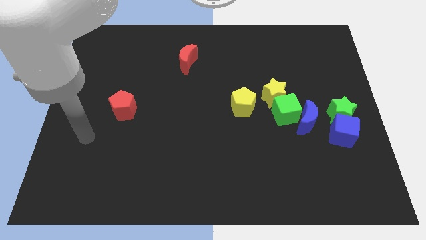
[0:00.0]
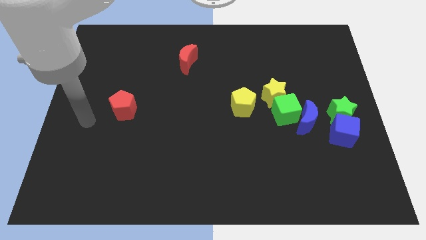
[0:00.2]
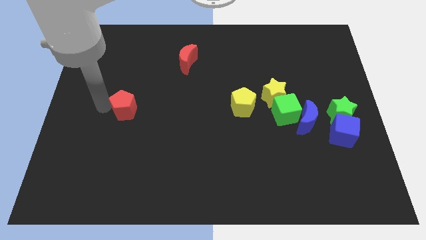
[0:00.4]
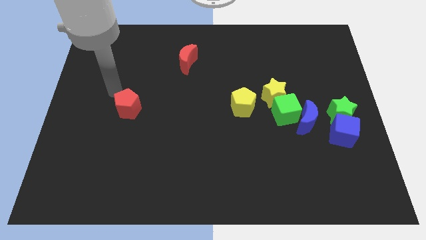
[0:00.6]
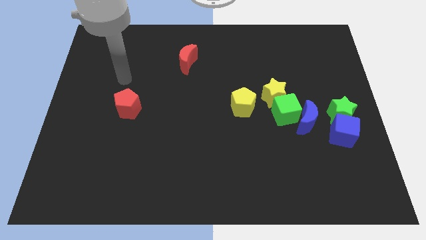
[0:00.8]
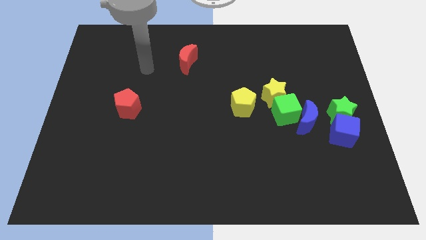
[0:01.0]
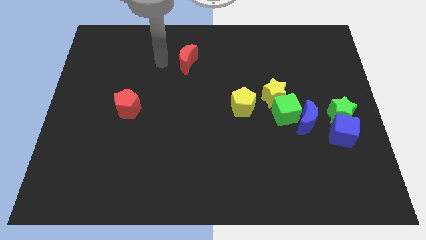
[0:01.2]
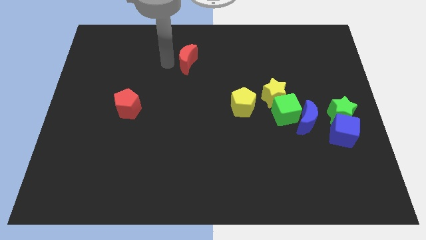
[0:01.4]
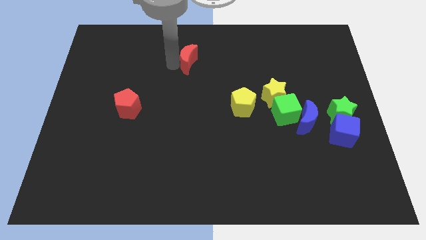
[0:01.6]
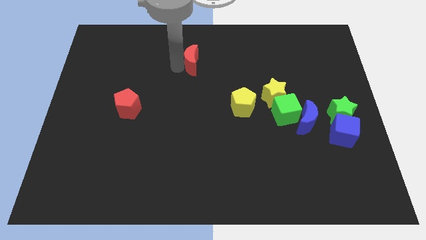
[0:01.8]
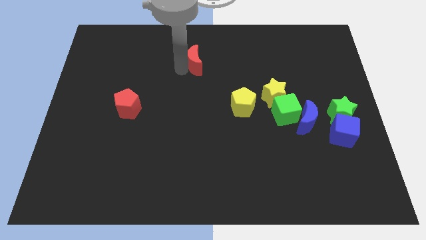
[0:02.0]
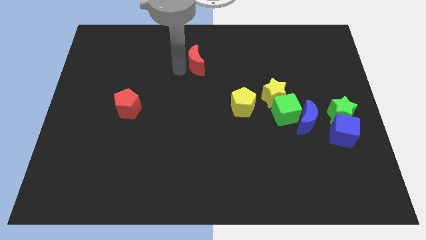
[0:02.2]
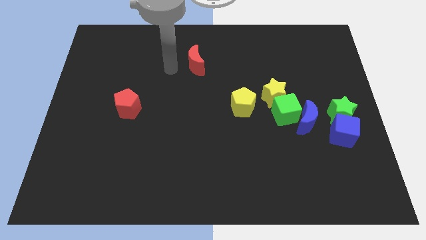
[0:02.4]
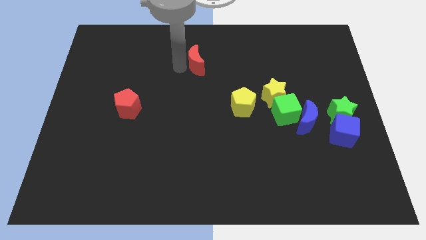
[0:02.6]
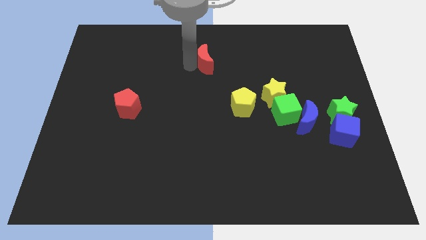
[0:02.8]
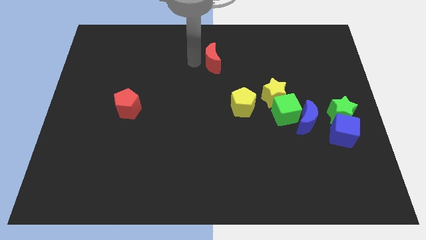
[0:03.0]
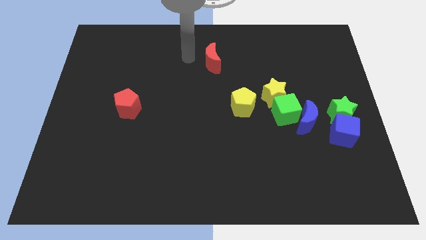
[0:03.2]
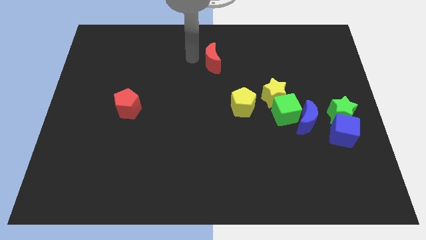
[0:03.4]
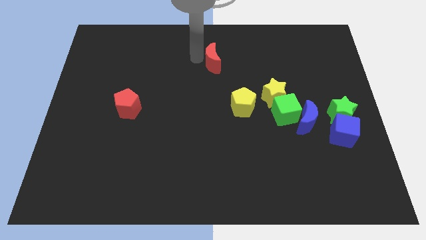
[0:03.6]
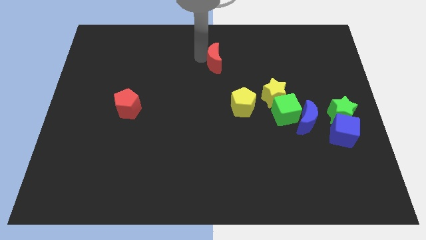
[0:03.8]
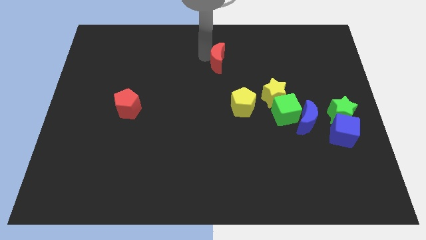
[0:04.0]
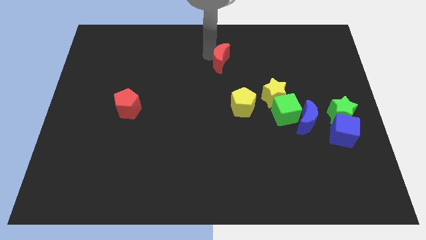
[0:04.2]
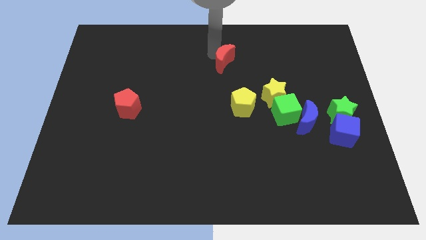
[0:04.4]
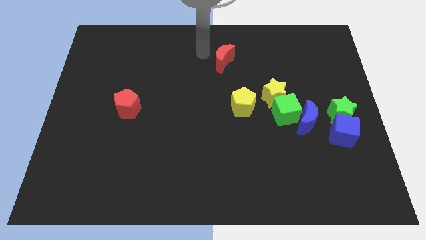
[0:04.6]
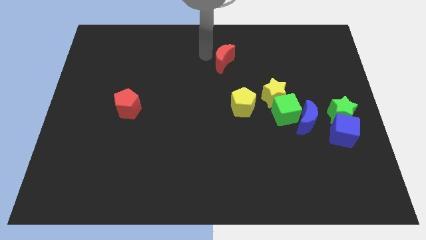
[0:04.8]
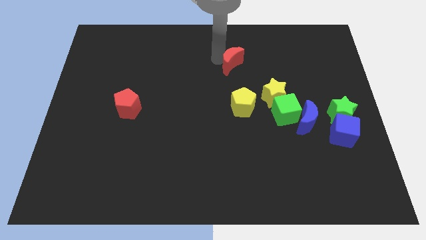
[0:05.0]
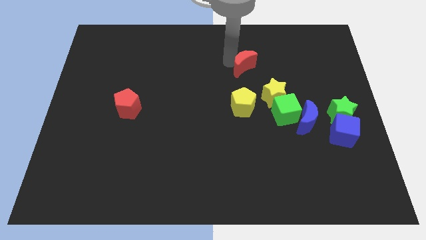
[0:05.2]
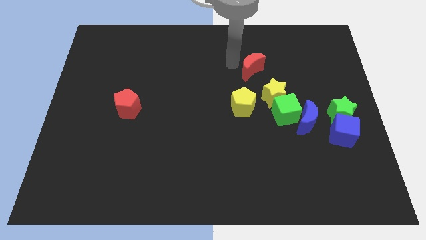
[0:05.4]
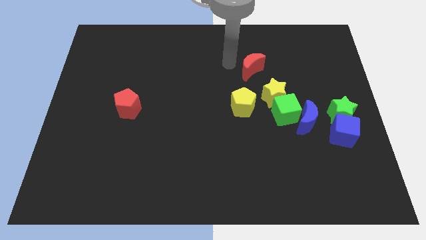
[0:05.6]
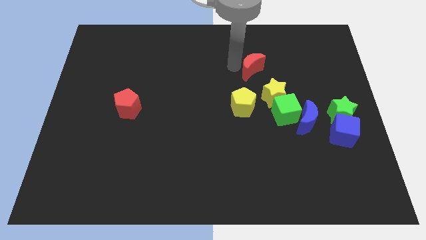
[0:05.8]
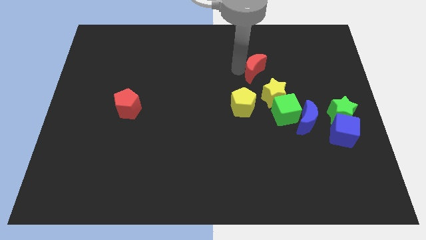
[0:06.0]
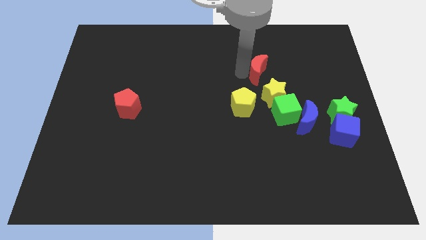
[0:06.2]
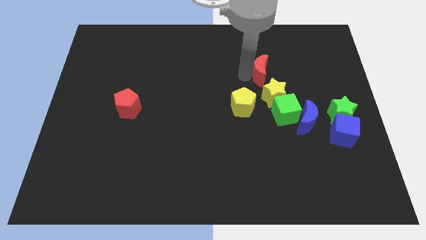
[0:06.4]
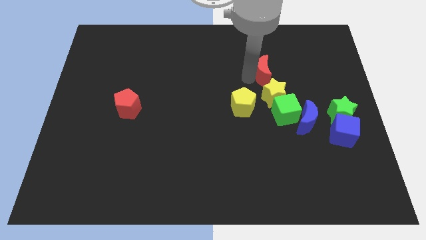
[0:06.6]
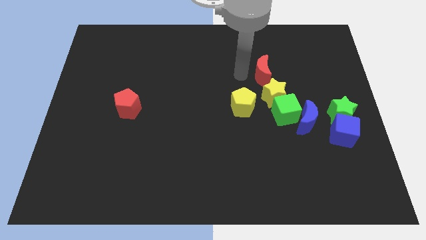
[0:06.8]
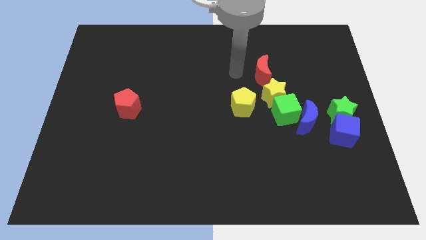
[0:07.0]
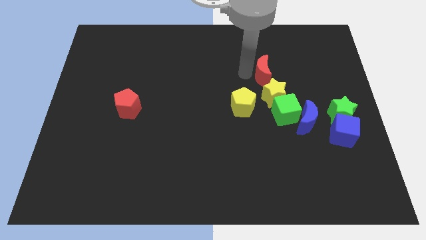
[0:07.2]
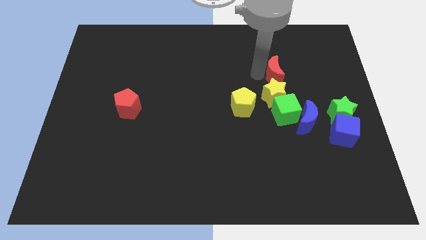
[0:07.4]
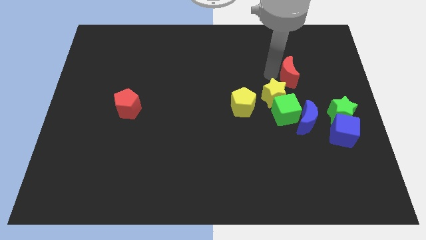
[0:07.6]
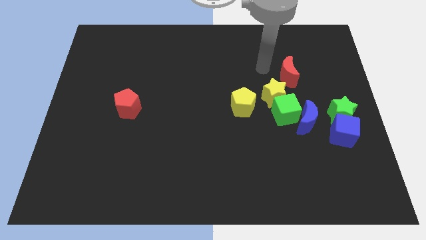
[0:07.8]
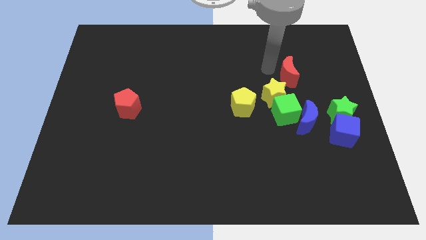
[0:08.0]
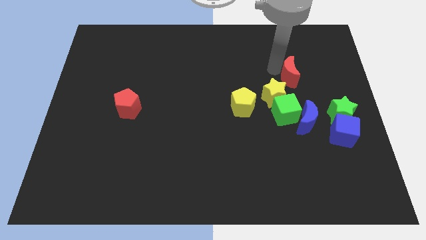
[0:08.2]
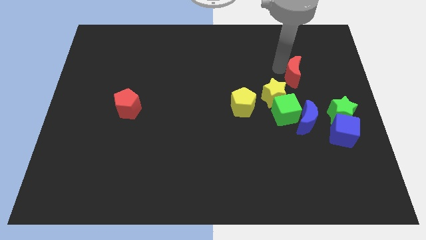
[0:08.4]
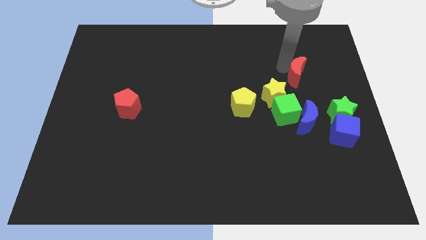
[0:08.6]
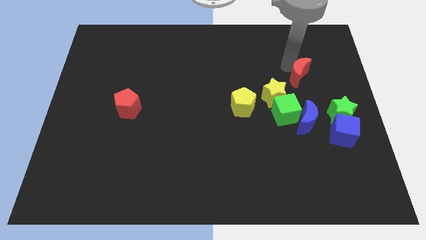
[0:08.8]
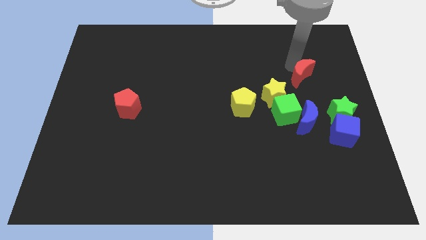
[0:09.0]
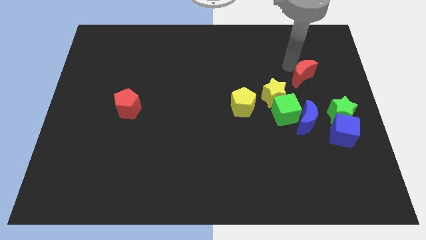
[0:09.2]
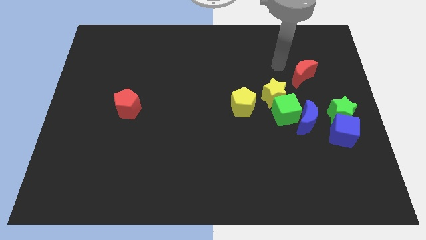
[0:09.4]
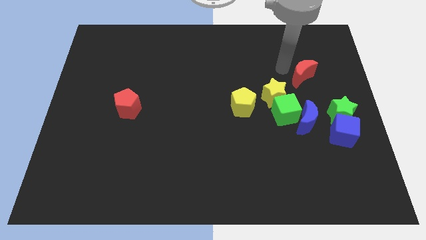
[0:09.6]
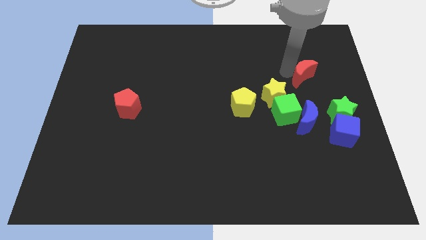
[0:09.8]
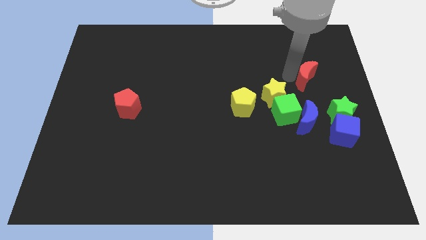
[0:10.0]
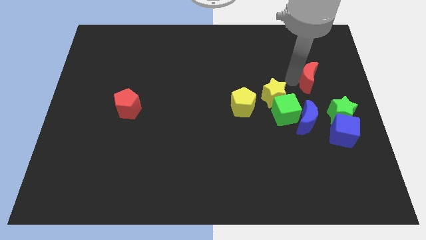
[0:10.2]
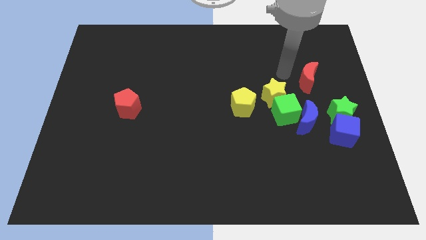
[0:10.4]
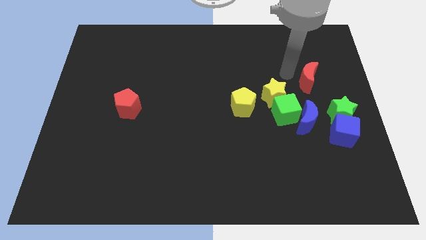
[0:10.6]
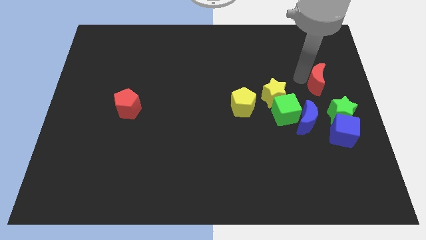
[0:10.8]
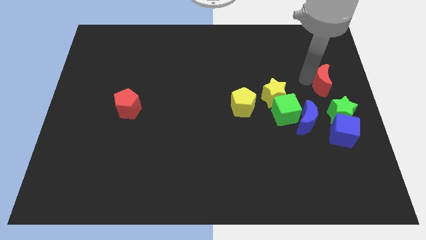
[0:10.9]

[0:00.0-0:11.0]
slide the red moon to the right side

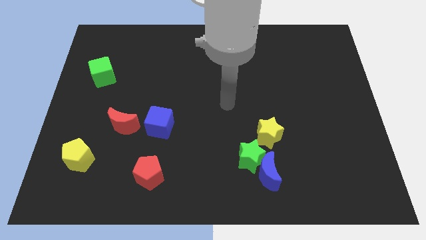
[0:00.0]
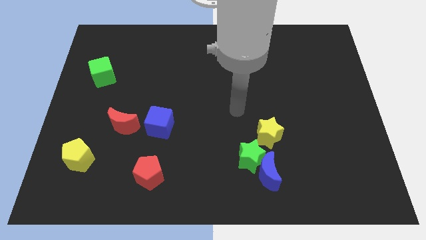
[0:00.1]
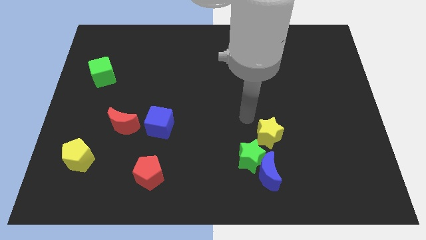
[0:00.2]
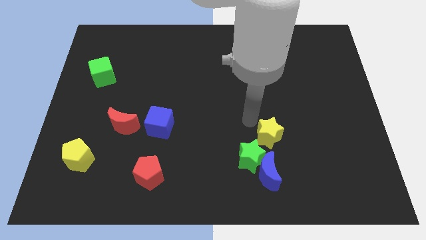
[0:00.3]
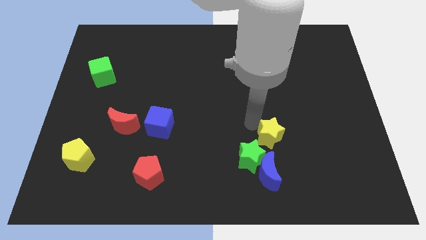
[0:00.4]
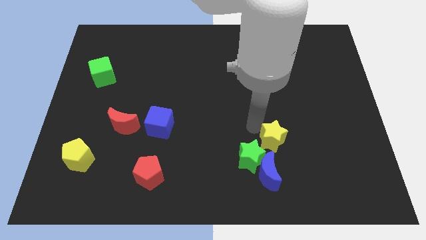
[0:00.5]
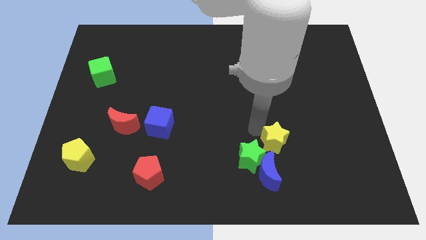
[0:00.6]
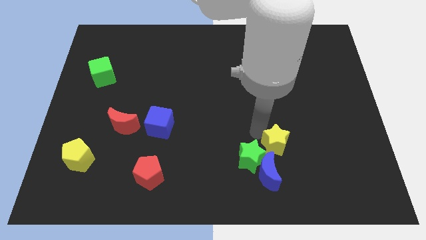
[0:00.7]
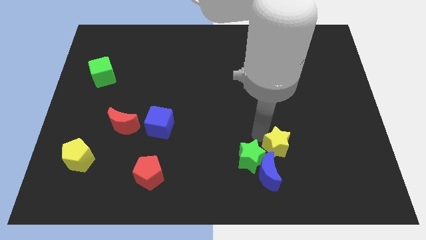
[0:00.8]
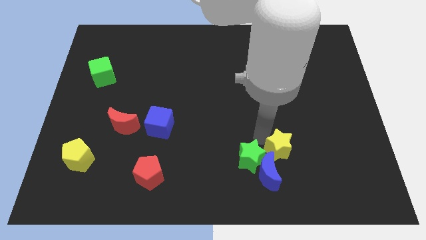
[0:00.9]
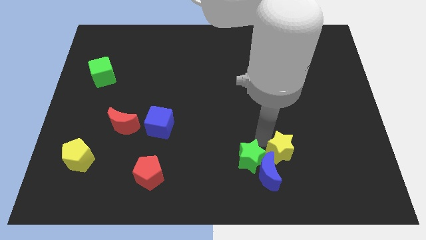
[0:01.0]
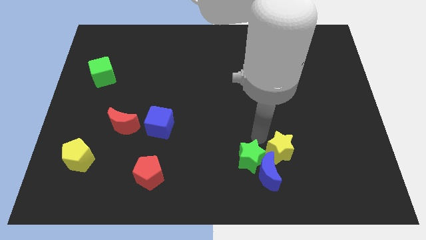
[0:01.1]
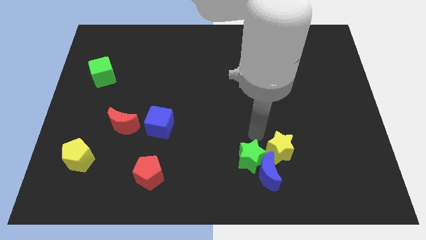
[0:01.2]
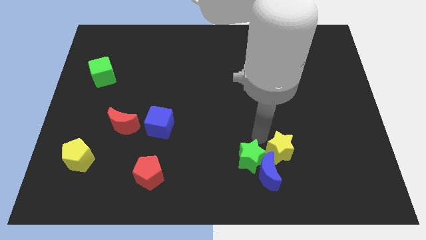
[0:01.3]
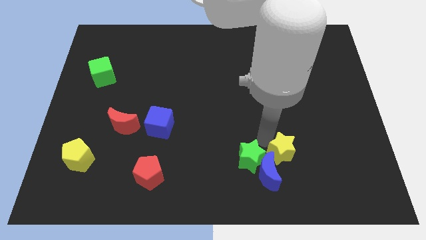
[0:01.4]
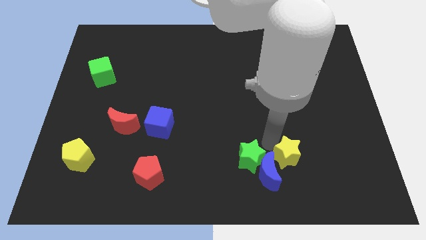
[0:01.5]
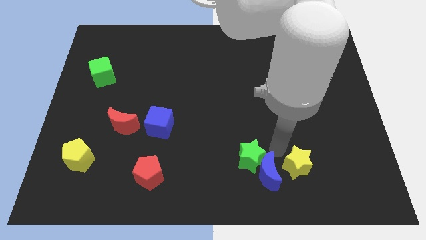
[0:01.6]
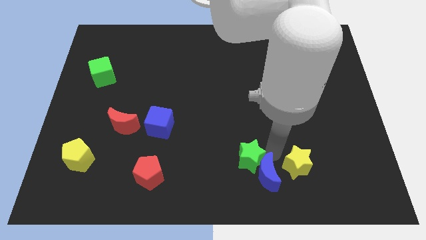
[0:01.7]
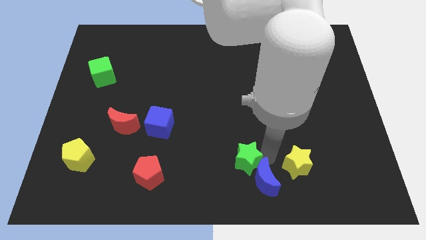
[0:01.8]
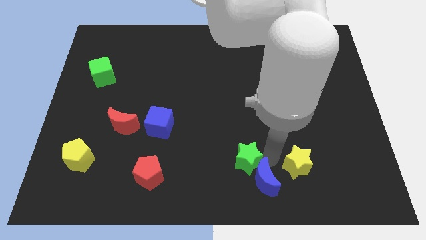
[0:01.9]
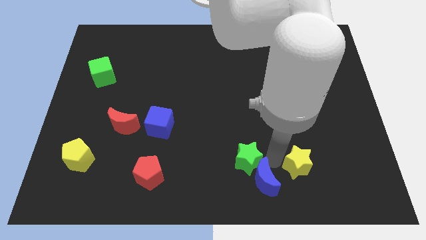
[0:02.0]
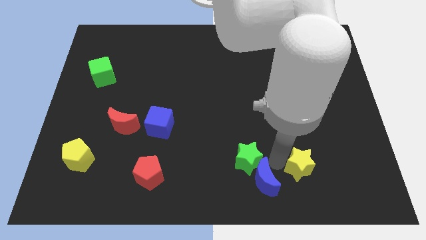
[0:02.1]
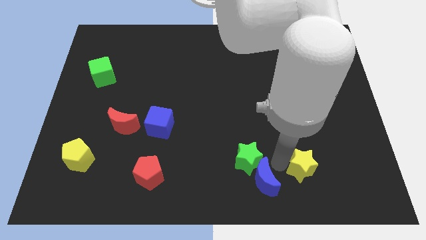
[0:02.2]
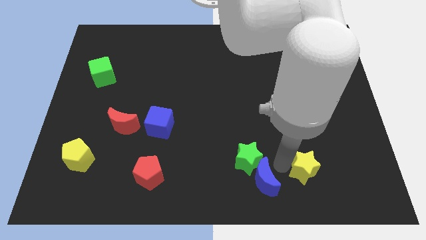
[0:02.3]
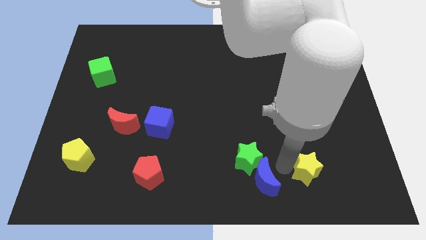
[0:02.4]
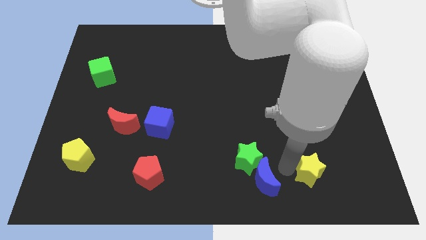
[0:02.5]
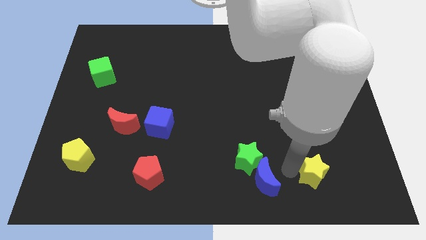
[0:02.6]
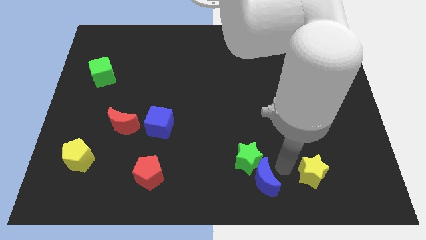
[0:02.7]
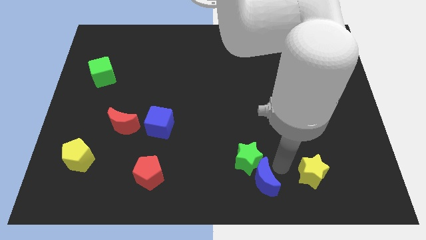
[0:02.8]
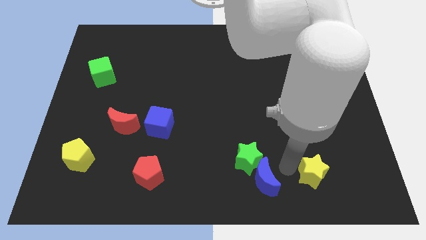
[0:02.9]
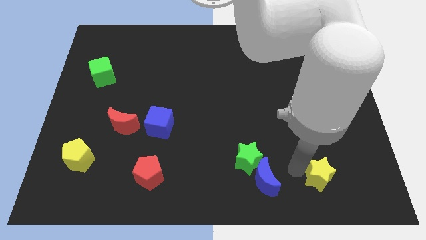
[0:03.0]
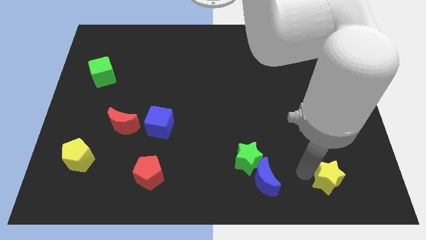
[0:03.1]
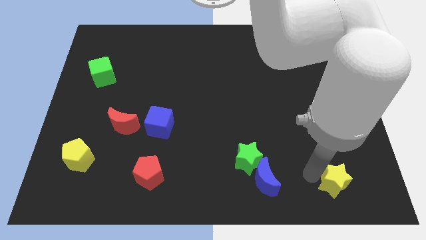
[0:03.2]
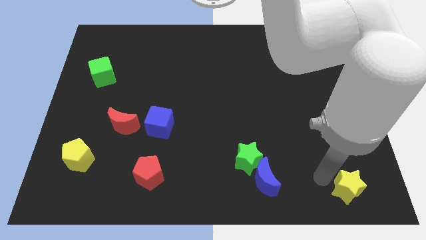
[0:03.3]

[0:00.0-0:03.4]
slide the yellow star to the bottom right corner
